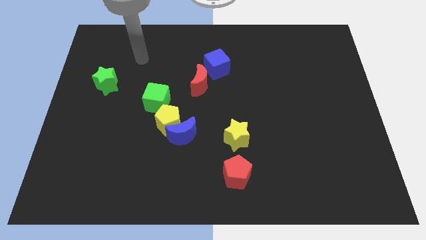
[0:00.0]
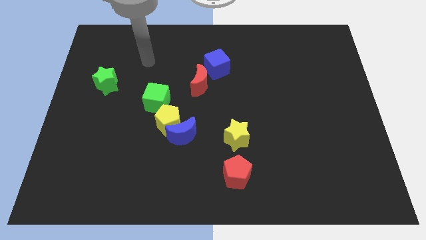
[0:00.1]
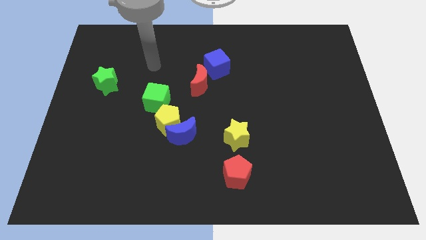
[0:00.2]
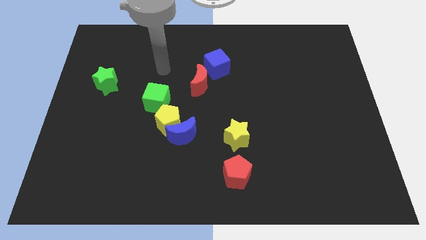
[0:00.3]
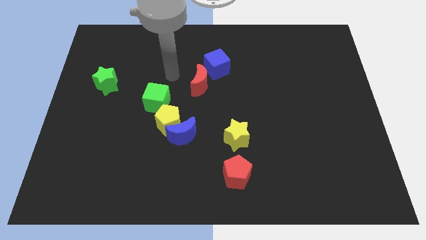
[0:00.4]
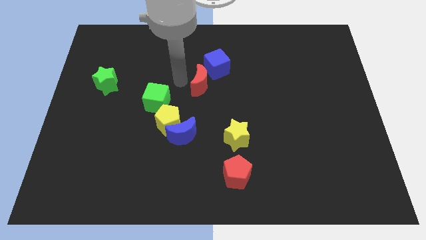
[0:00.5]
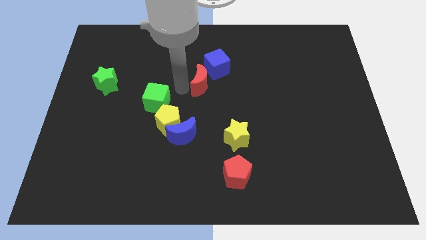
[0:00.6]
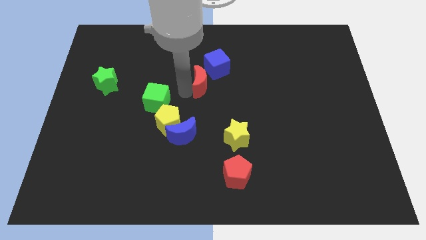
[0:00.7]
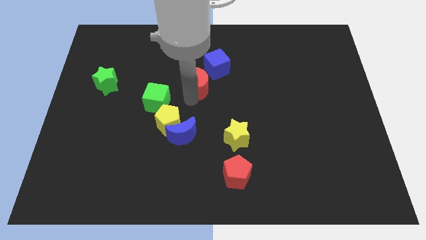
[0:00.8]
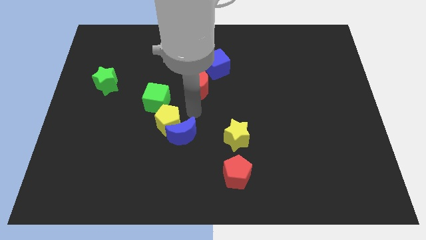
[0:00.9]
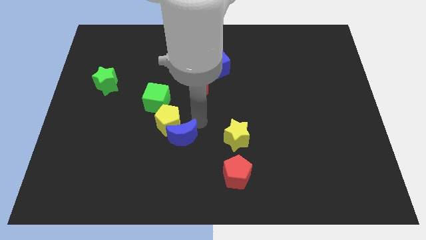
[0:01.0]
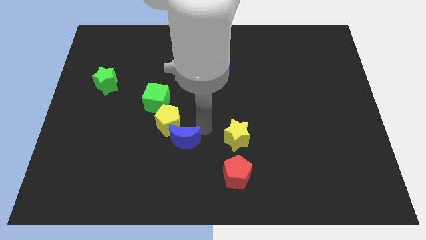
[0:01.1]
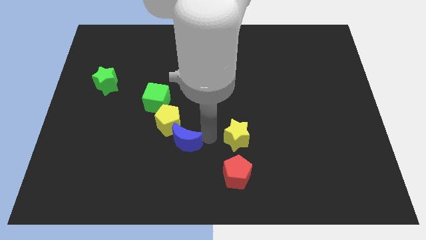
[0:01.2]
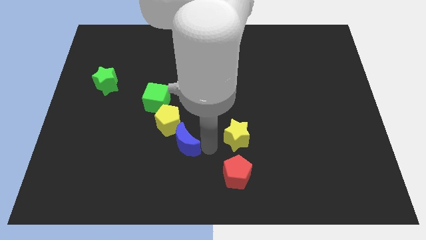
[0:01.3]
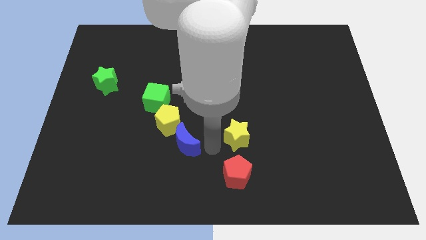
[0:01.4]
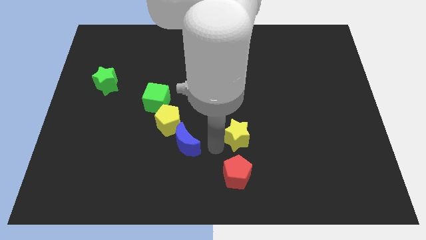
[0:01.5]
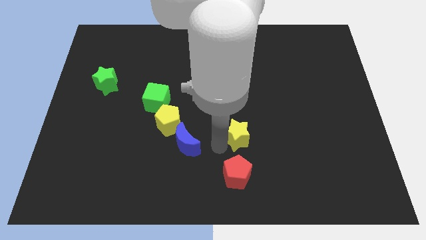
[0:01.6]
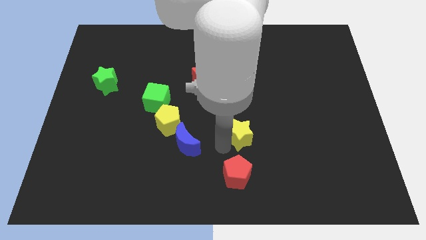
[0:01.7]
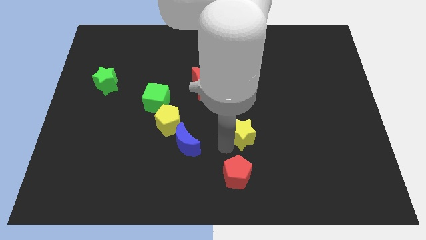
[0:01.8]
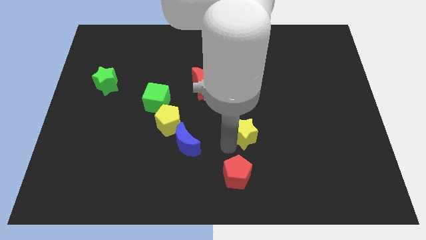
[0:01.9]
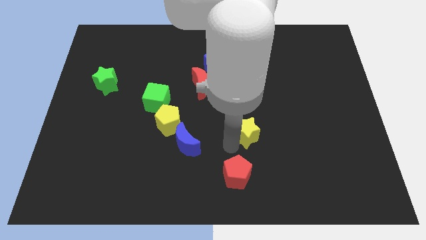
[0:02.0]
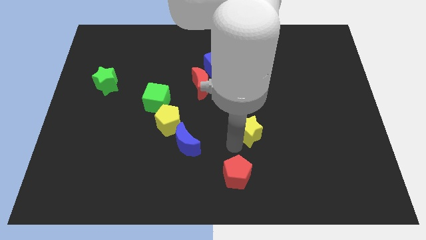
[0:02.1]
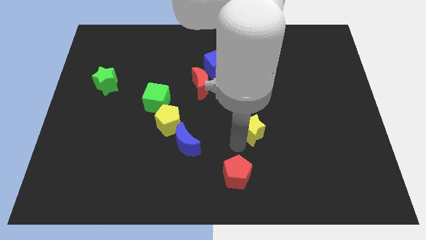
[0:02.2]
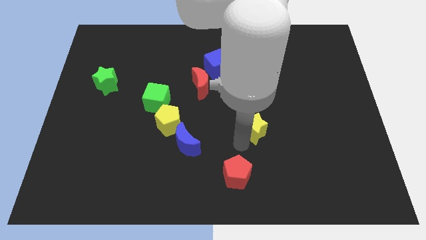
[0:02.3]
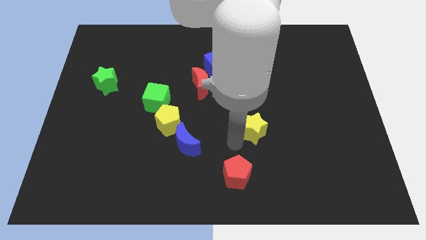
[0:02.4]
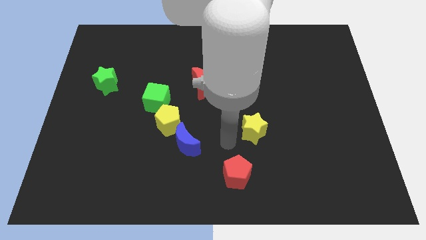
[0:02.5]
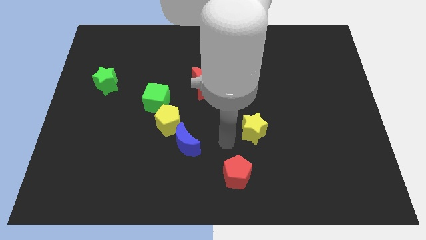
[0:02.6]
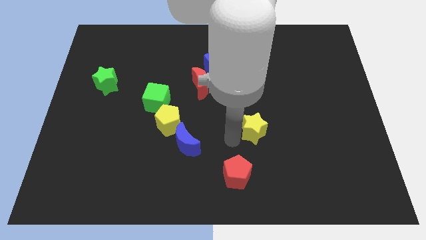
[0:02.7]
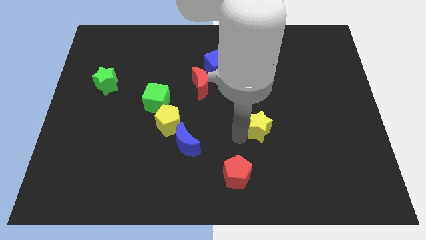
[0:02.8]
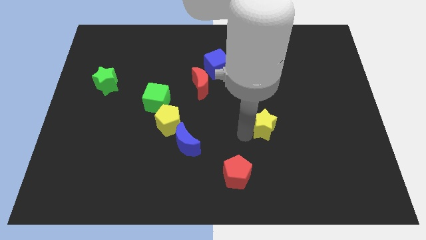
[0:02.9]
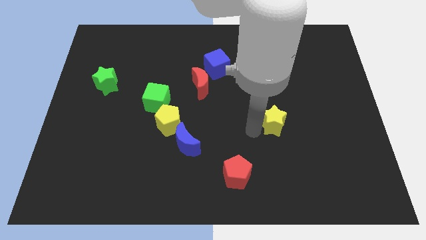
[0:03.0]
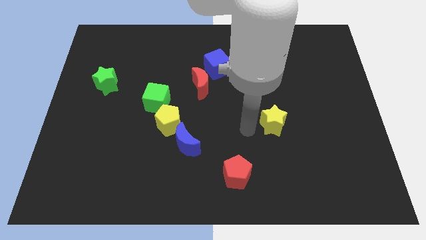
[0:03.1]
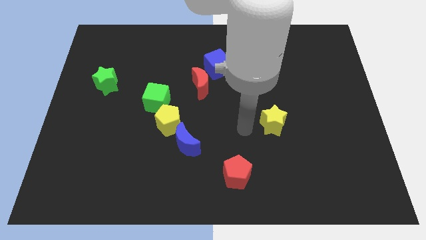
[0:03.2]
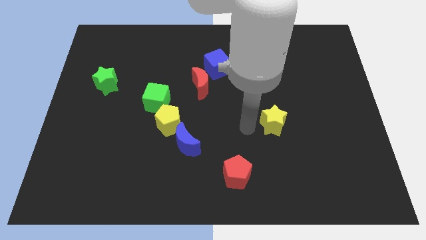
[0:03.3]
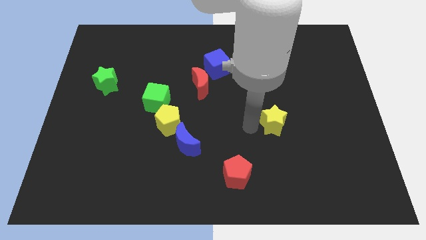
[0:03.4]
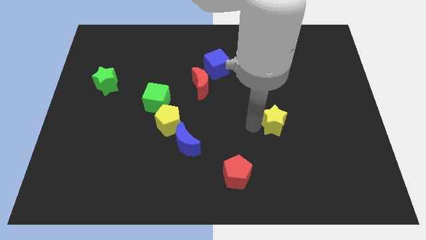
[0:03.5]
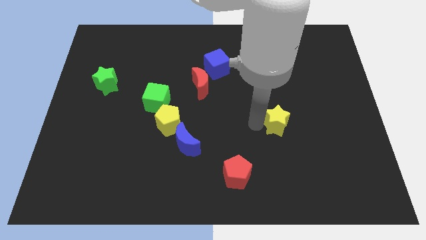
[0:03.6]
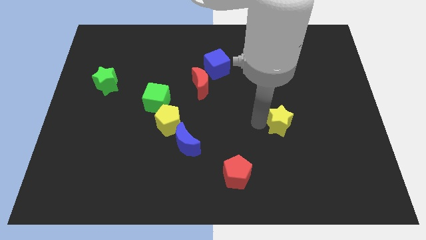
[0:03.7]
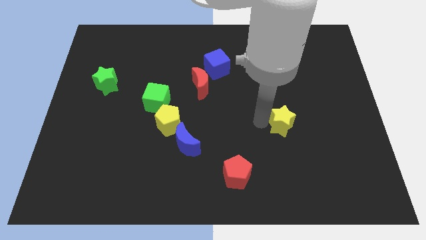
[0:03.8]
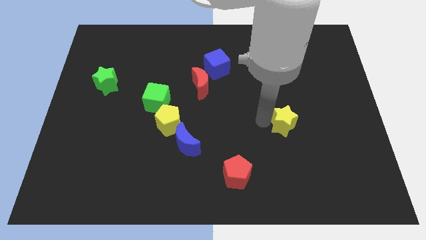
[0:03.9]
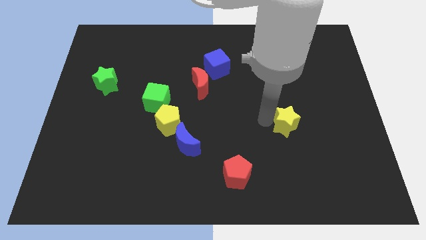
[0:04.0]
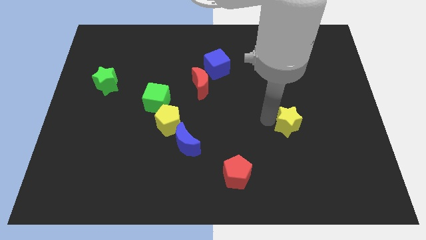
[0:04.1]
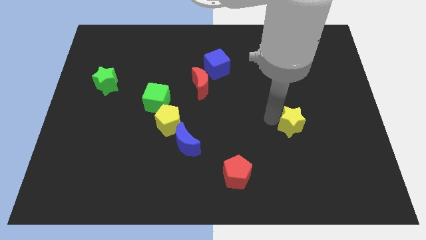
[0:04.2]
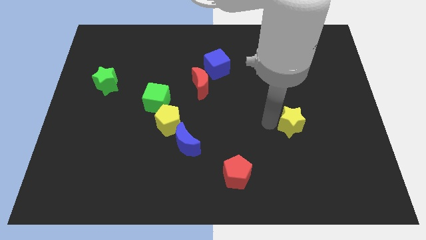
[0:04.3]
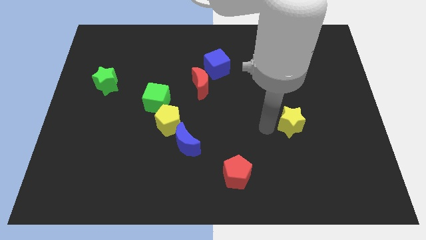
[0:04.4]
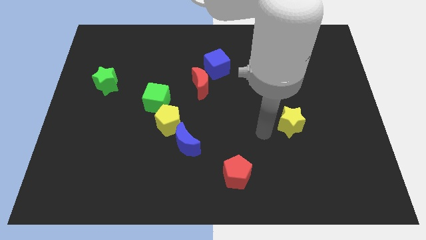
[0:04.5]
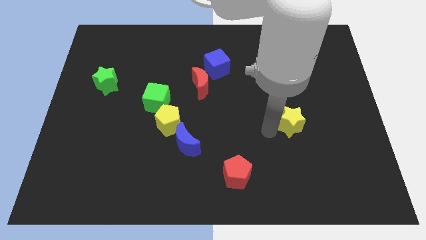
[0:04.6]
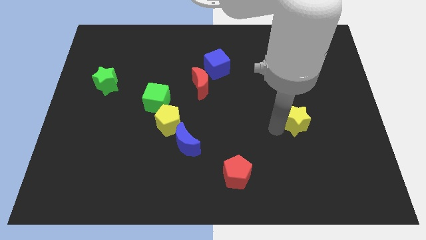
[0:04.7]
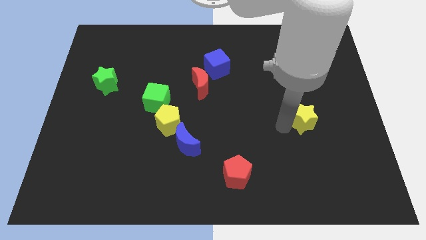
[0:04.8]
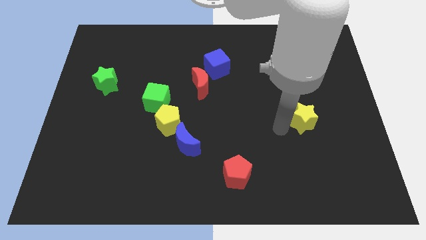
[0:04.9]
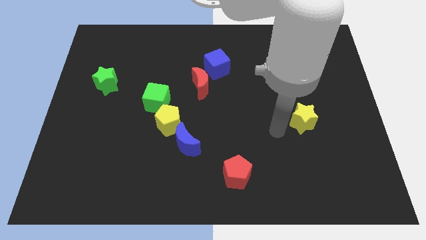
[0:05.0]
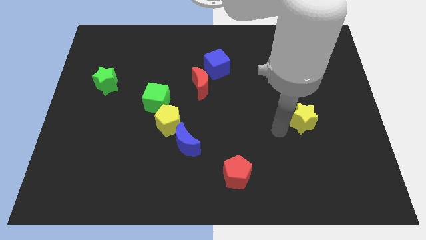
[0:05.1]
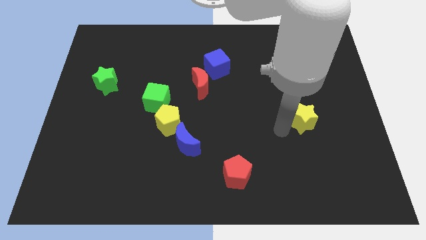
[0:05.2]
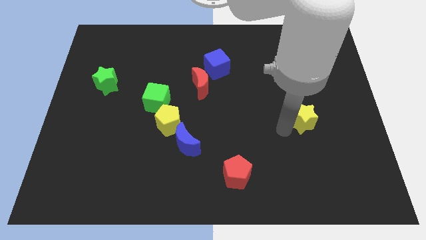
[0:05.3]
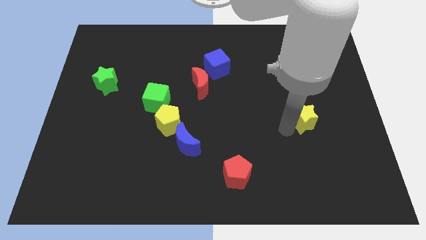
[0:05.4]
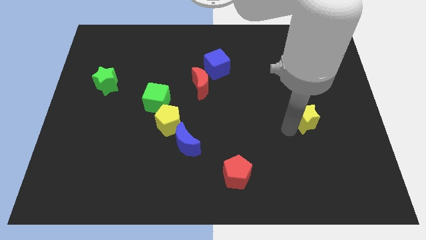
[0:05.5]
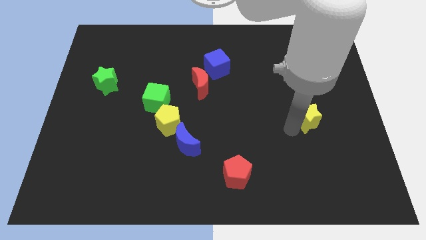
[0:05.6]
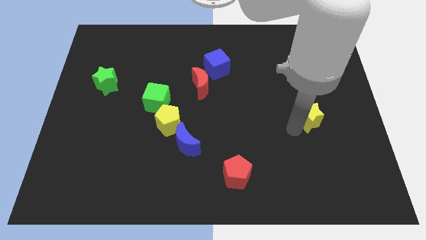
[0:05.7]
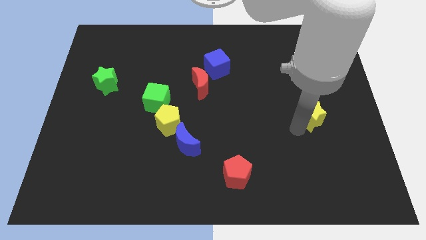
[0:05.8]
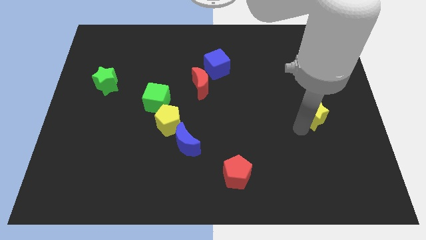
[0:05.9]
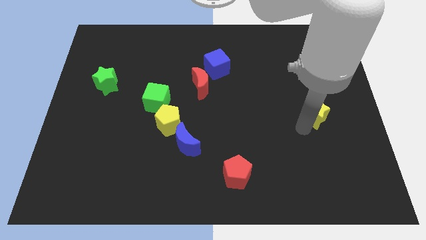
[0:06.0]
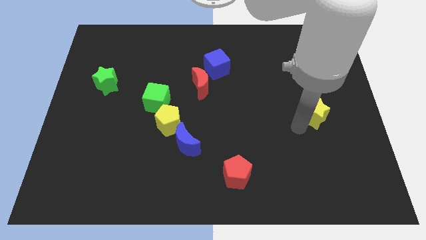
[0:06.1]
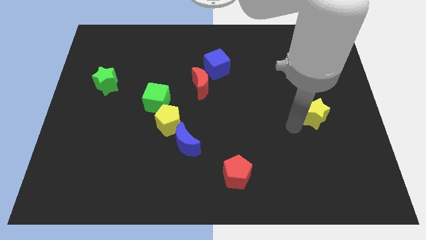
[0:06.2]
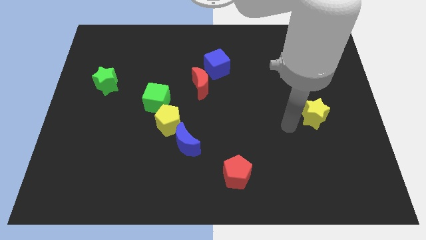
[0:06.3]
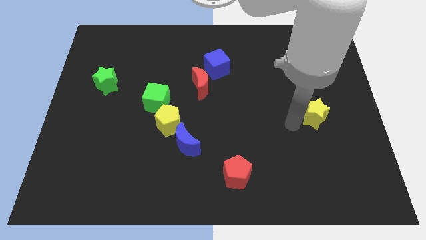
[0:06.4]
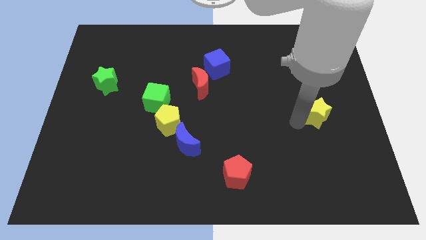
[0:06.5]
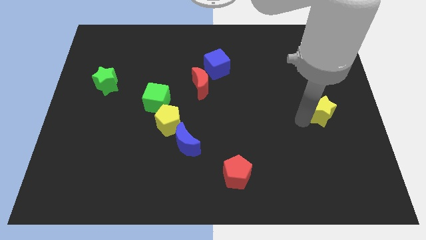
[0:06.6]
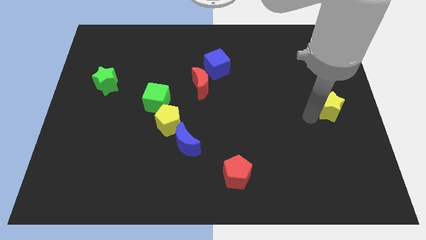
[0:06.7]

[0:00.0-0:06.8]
put the yellow star to the right side
